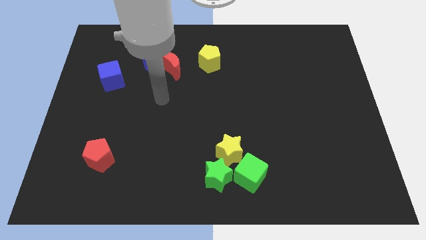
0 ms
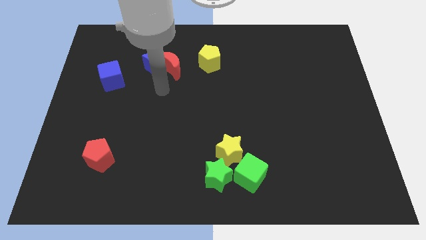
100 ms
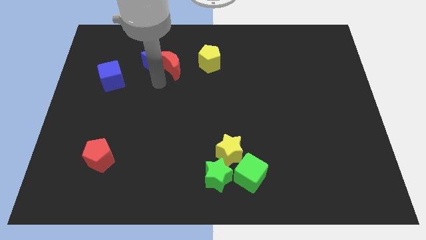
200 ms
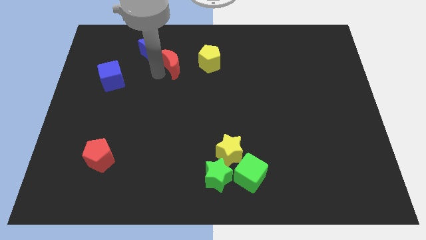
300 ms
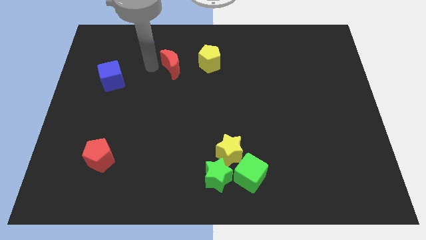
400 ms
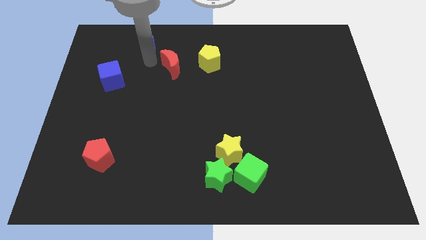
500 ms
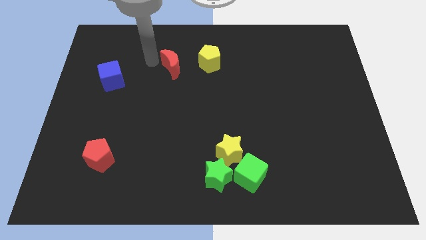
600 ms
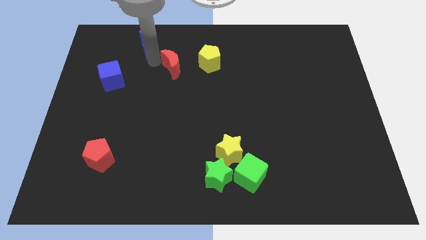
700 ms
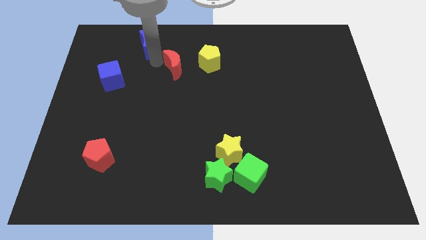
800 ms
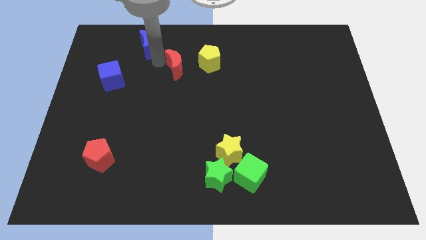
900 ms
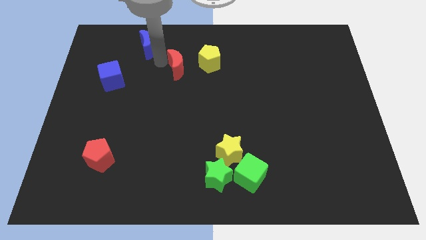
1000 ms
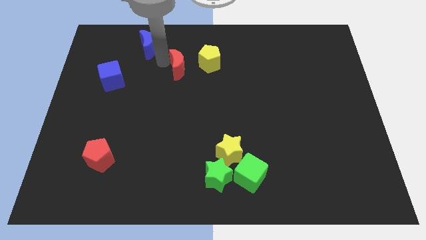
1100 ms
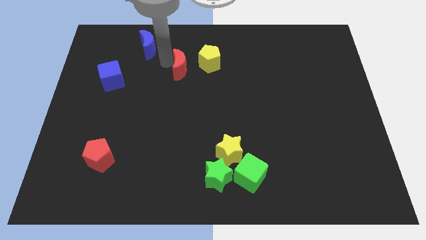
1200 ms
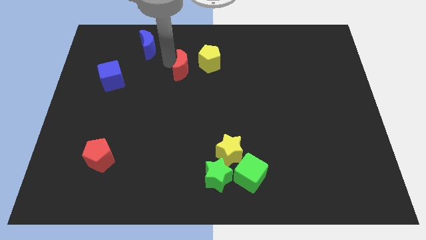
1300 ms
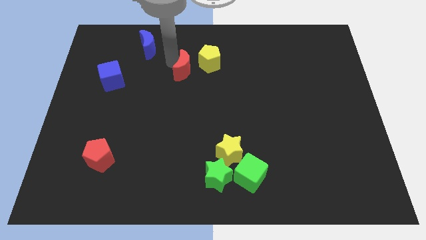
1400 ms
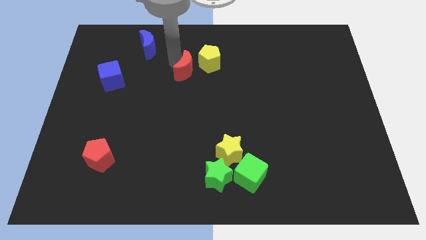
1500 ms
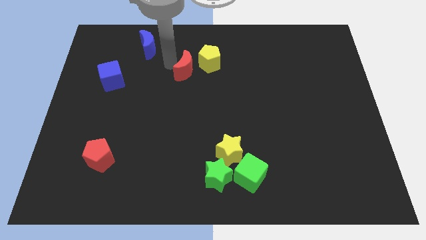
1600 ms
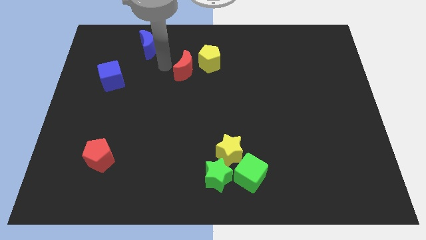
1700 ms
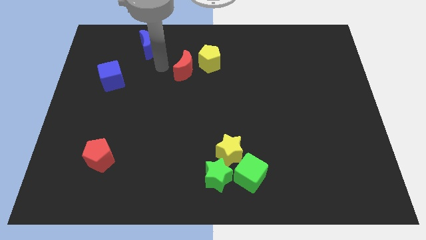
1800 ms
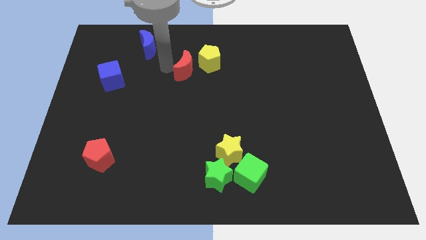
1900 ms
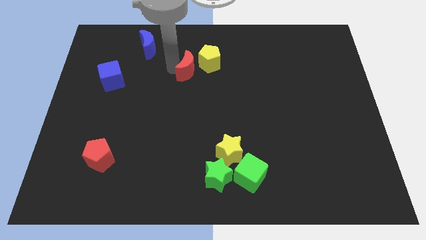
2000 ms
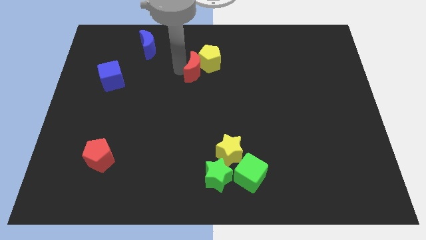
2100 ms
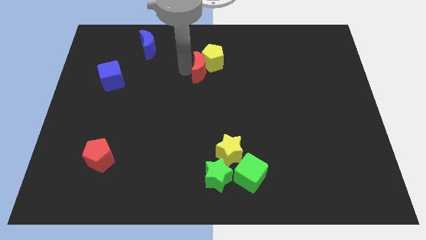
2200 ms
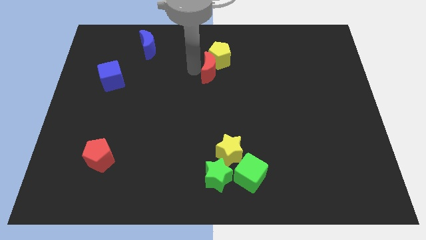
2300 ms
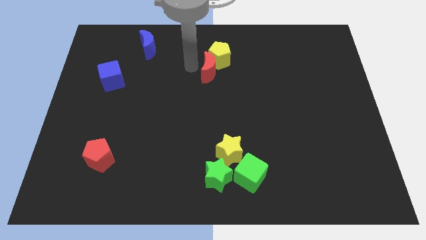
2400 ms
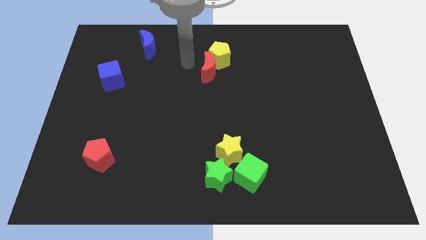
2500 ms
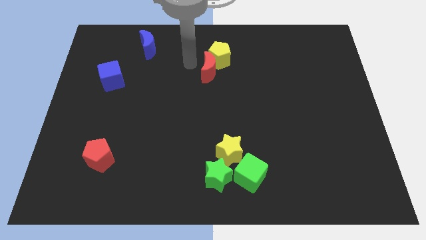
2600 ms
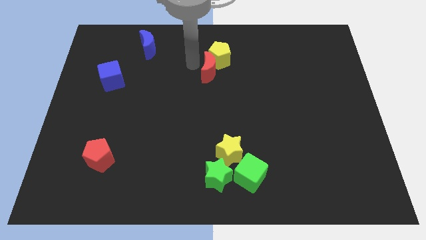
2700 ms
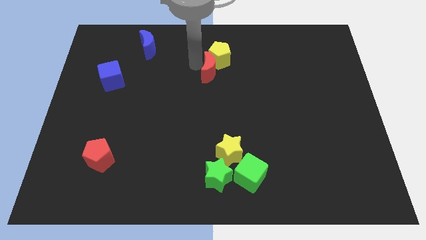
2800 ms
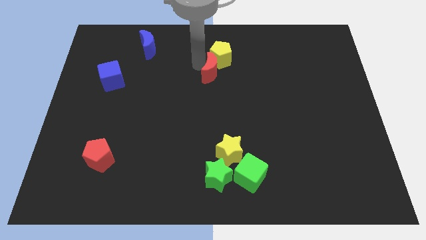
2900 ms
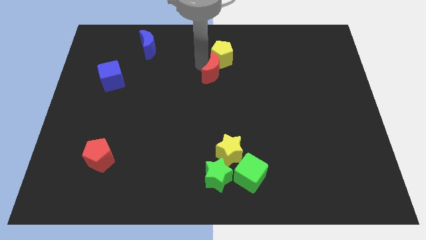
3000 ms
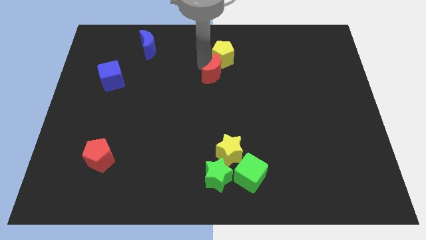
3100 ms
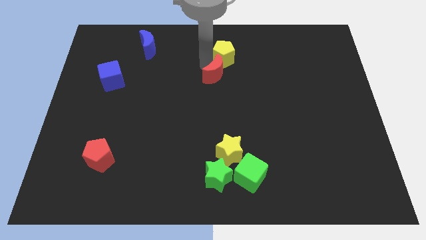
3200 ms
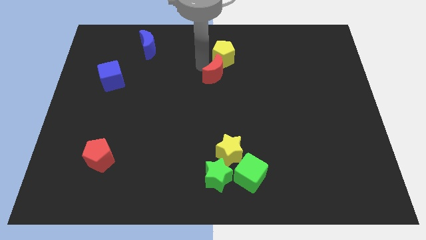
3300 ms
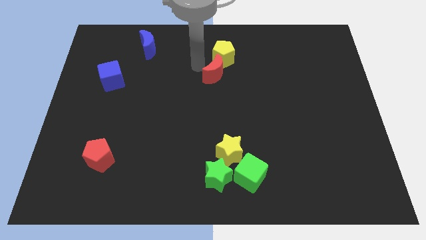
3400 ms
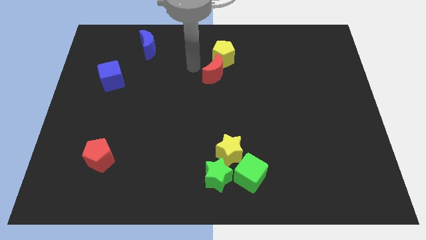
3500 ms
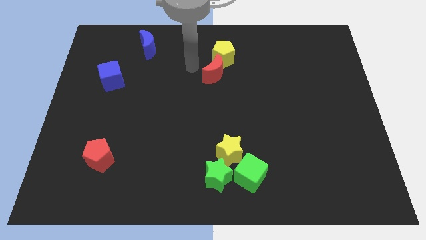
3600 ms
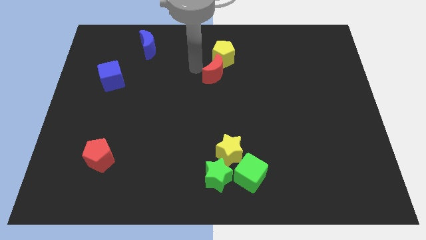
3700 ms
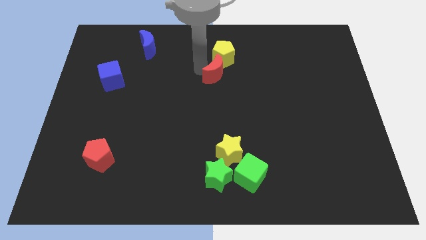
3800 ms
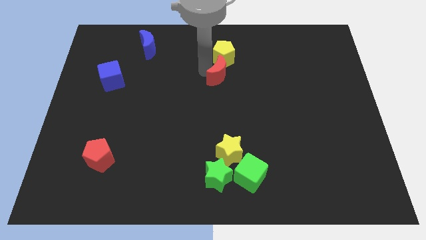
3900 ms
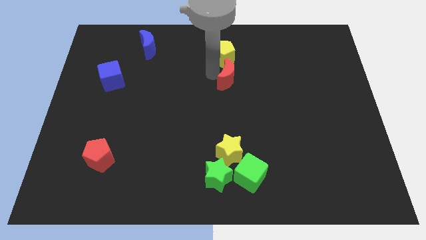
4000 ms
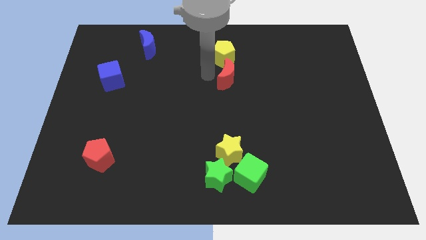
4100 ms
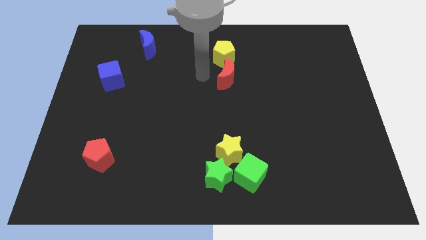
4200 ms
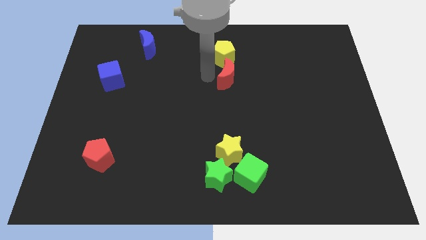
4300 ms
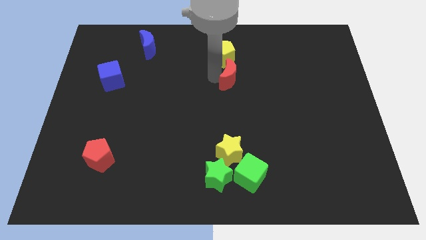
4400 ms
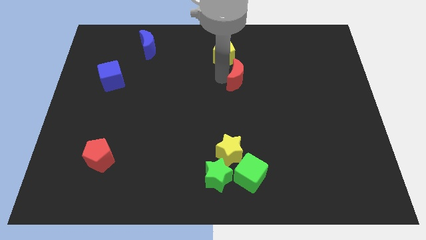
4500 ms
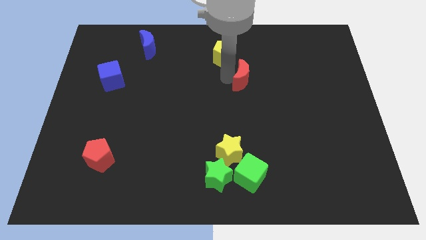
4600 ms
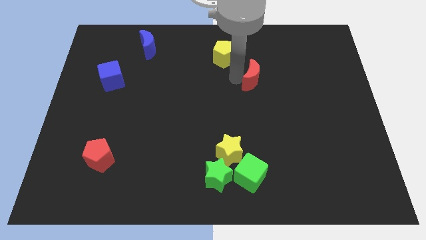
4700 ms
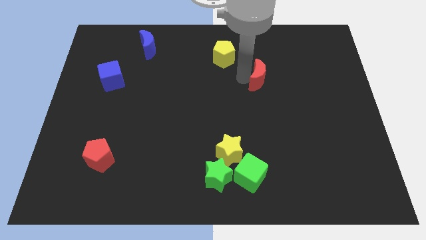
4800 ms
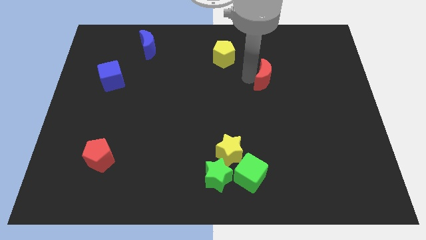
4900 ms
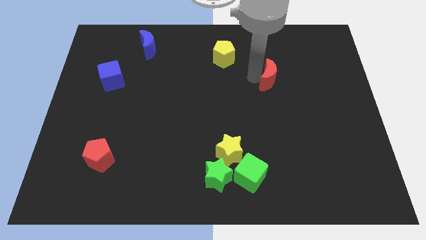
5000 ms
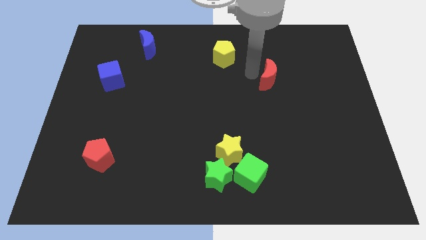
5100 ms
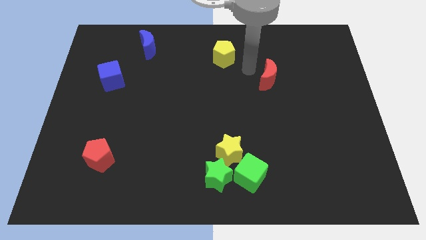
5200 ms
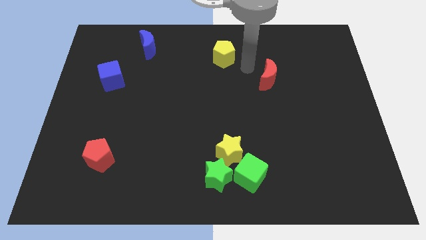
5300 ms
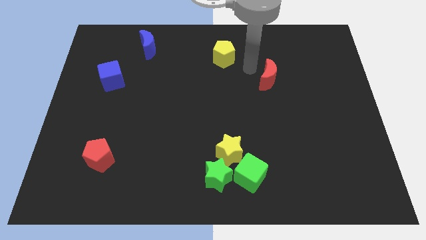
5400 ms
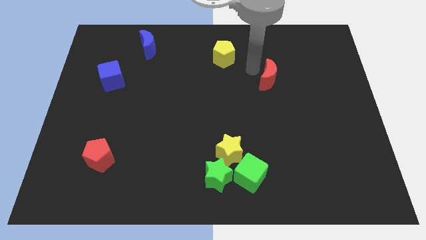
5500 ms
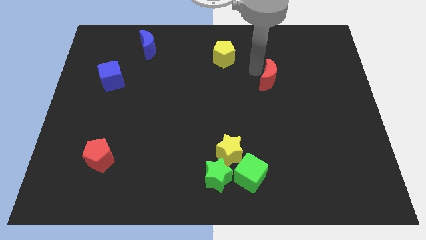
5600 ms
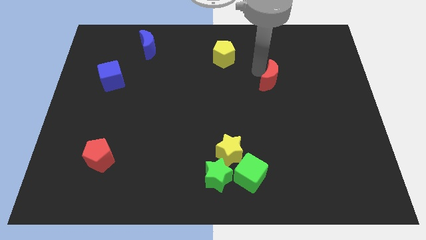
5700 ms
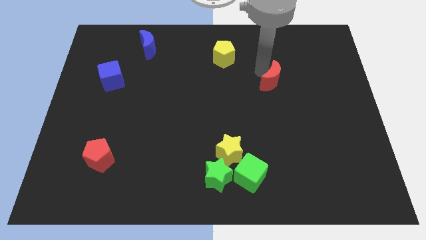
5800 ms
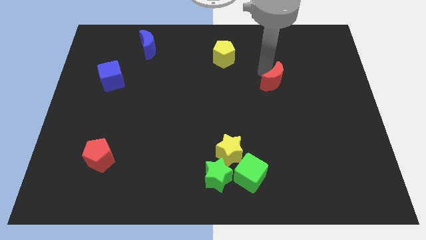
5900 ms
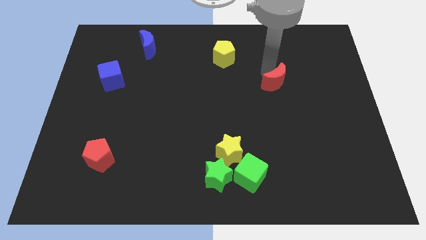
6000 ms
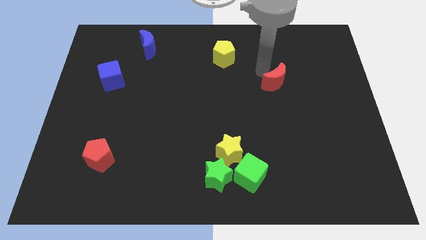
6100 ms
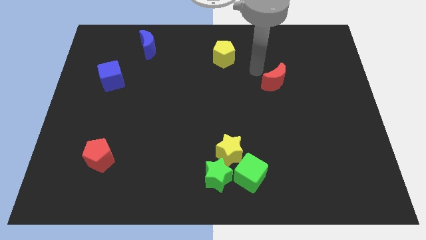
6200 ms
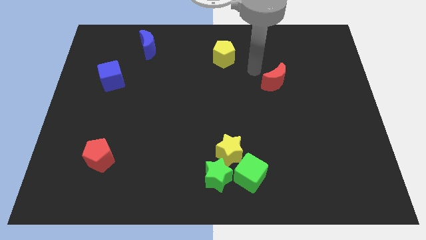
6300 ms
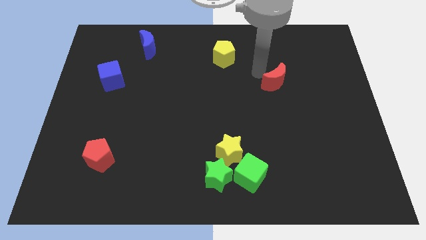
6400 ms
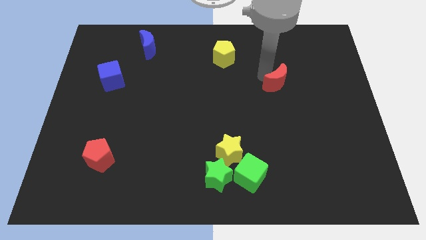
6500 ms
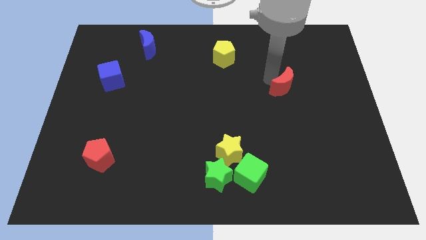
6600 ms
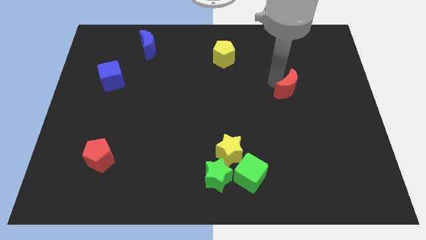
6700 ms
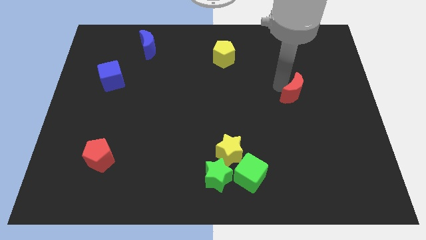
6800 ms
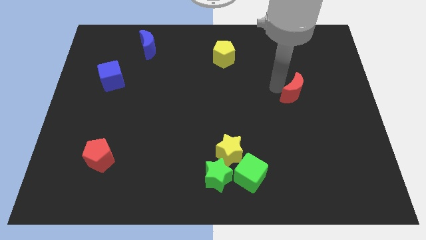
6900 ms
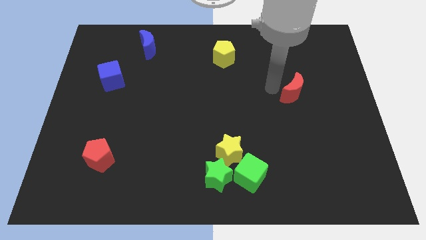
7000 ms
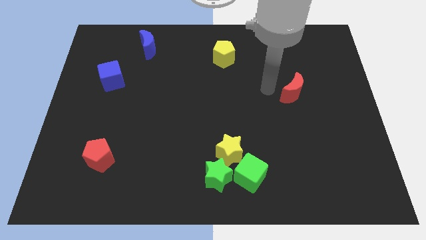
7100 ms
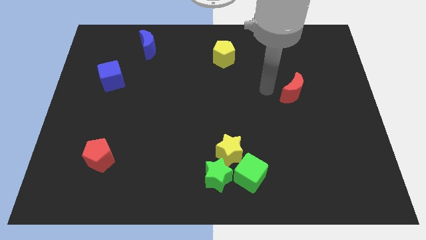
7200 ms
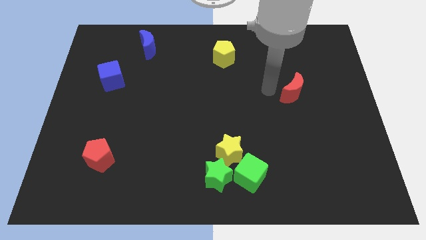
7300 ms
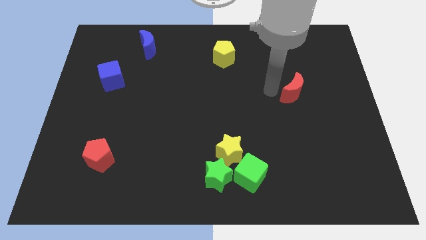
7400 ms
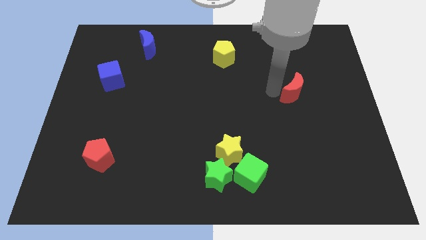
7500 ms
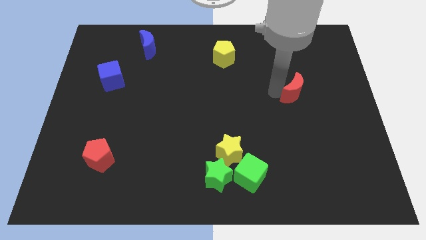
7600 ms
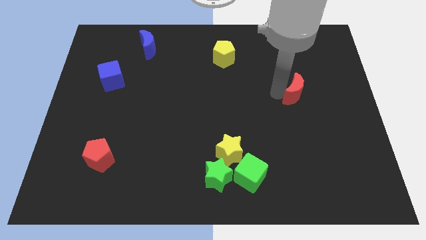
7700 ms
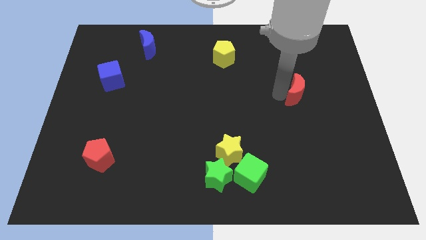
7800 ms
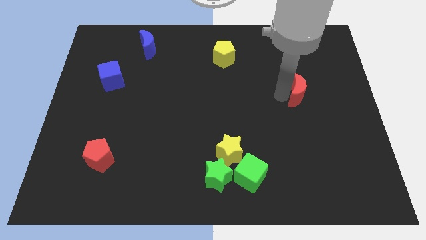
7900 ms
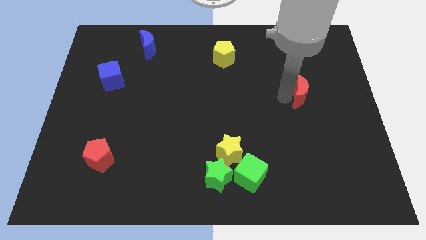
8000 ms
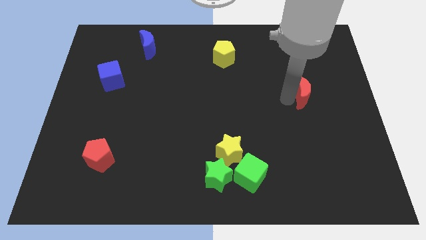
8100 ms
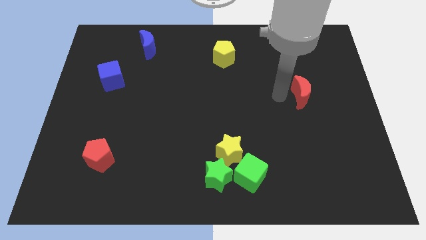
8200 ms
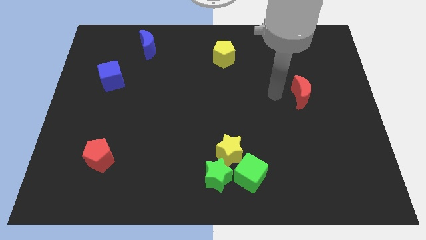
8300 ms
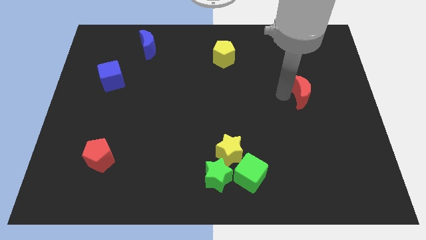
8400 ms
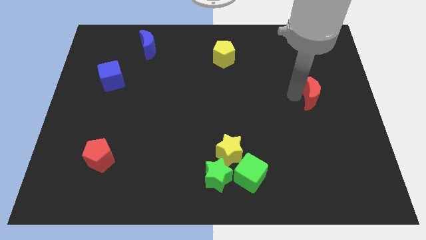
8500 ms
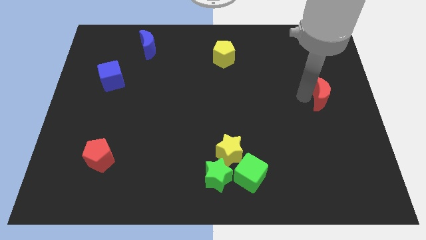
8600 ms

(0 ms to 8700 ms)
slide the red moon to the right side of the board
